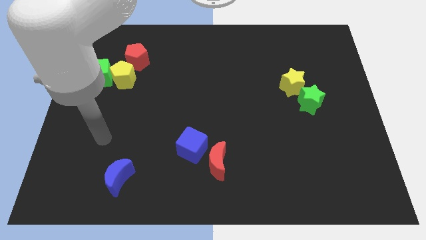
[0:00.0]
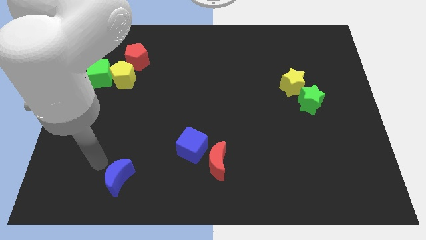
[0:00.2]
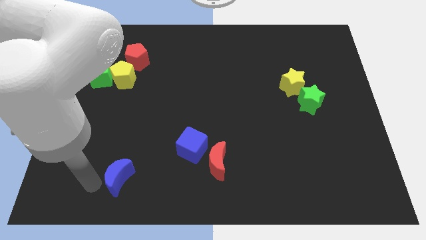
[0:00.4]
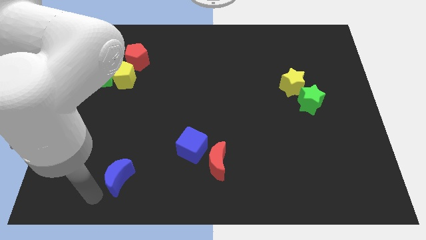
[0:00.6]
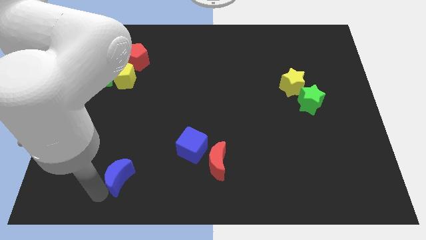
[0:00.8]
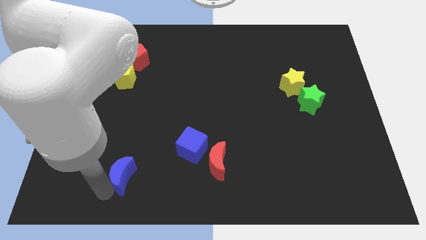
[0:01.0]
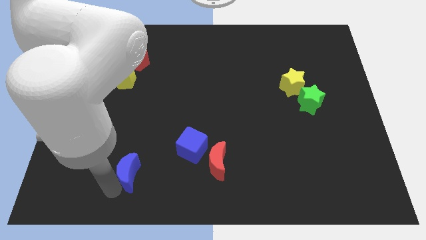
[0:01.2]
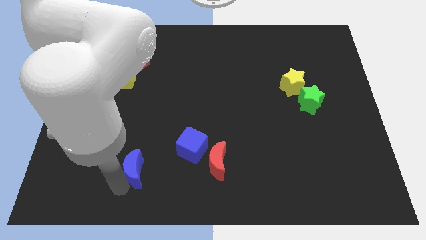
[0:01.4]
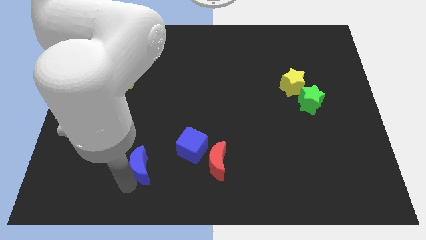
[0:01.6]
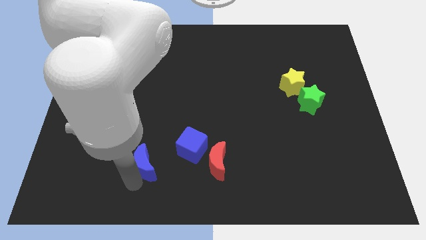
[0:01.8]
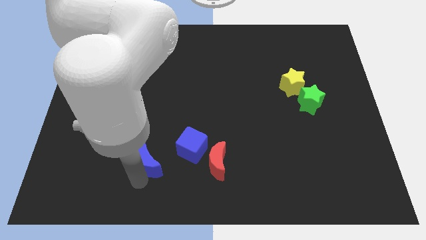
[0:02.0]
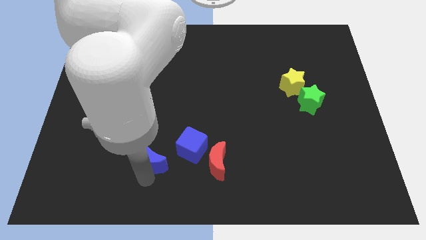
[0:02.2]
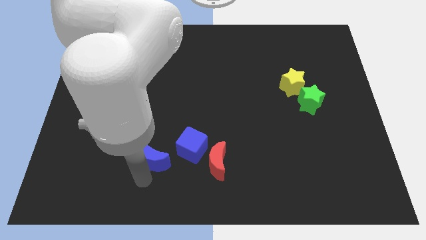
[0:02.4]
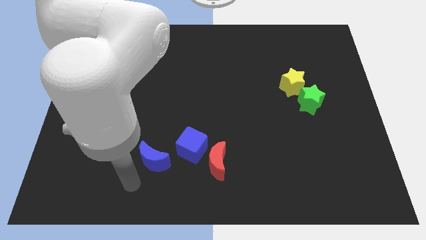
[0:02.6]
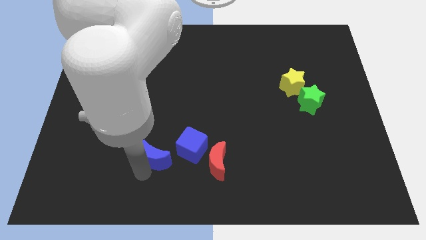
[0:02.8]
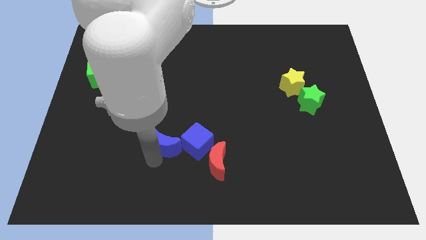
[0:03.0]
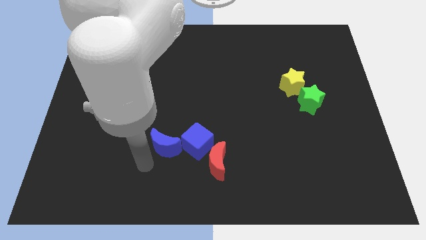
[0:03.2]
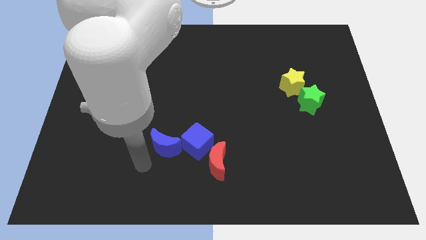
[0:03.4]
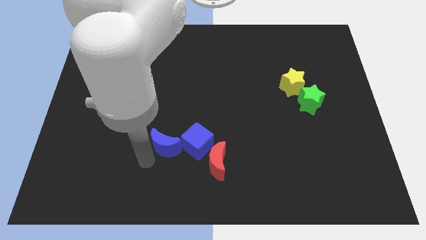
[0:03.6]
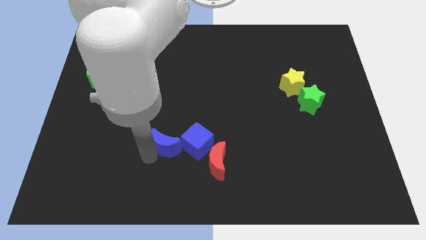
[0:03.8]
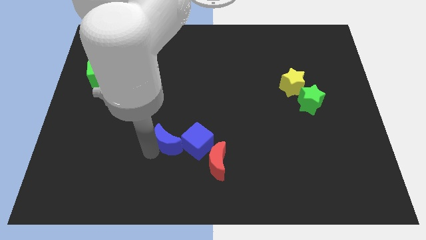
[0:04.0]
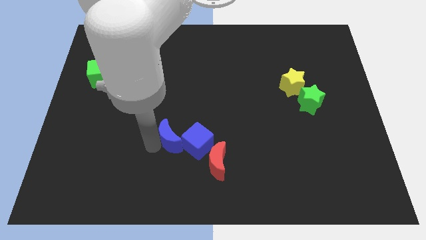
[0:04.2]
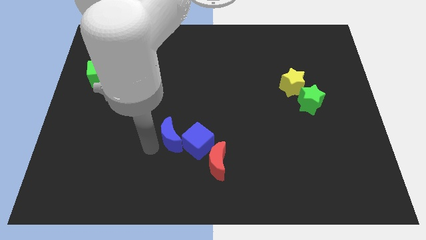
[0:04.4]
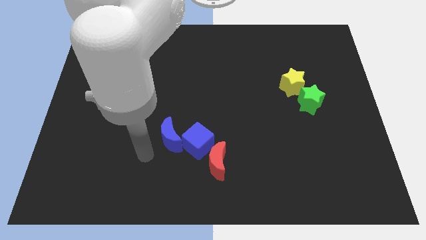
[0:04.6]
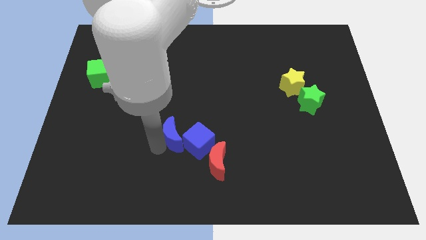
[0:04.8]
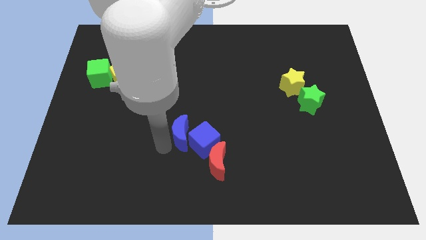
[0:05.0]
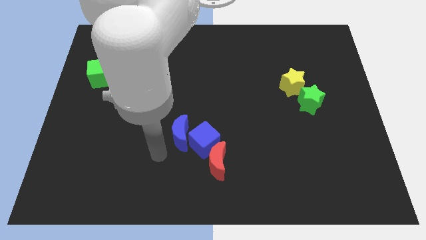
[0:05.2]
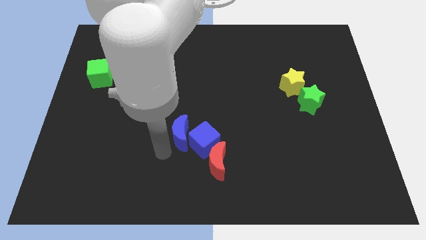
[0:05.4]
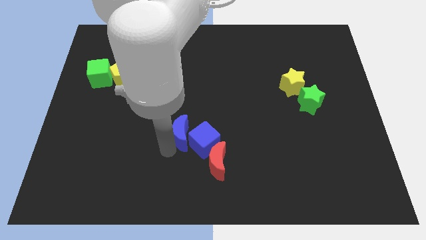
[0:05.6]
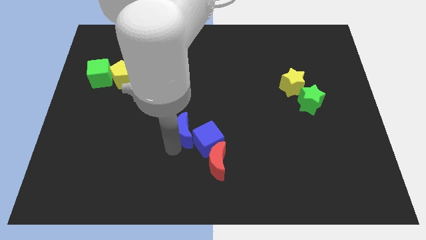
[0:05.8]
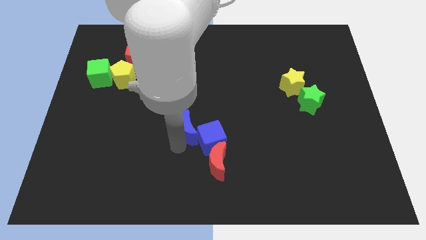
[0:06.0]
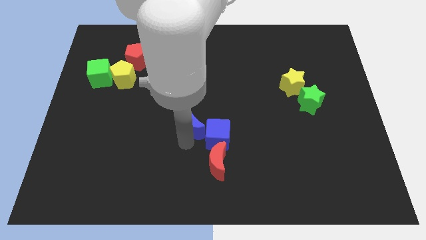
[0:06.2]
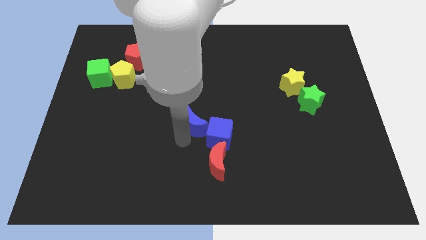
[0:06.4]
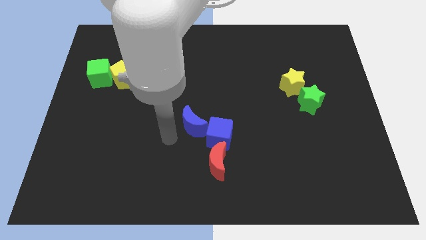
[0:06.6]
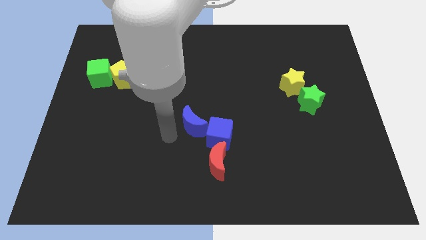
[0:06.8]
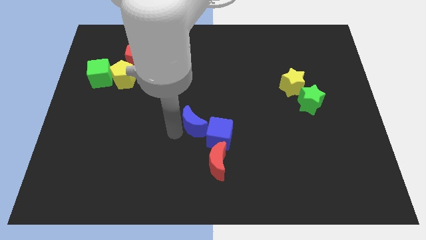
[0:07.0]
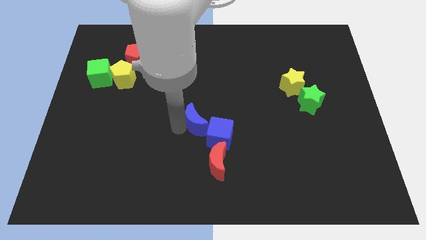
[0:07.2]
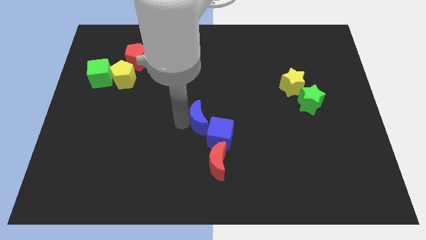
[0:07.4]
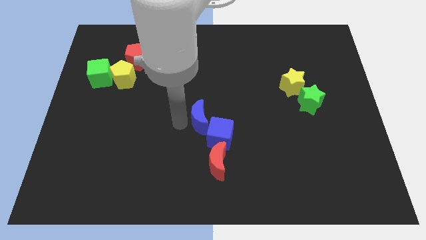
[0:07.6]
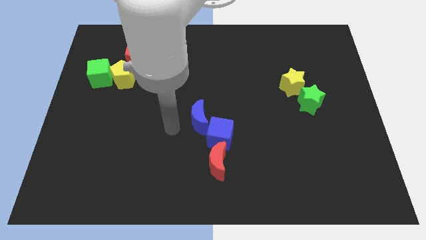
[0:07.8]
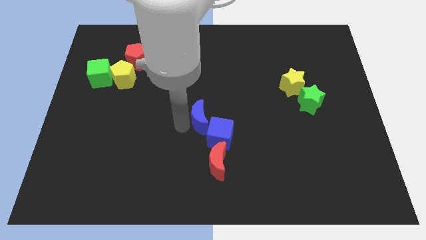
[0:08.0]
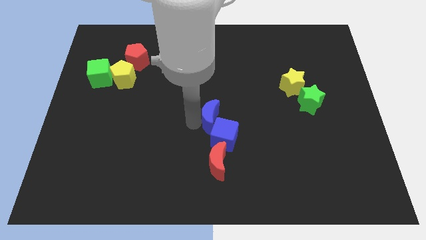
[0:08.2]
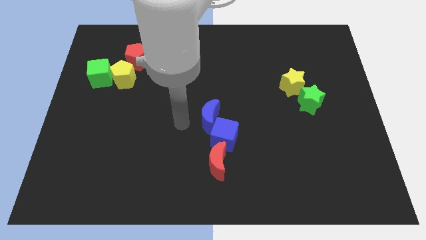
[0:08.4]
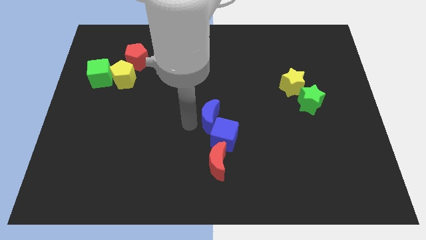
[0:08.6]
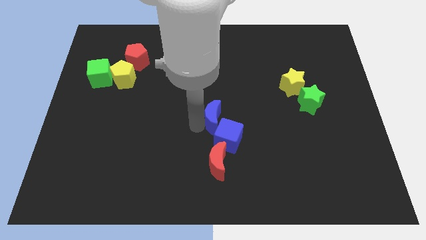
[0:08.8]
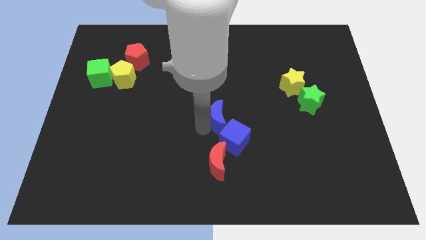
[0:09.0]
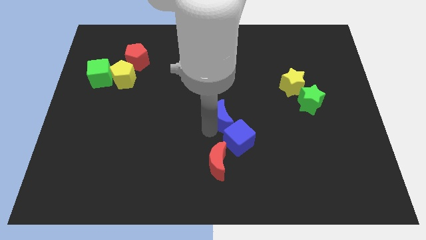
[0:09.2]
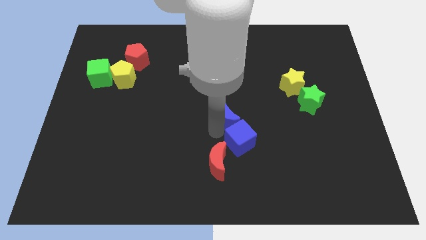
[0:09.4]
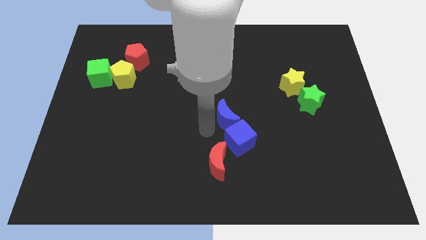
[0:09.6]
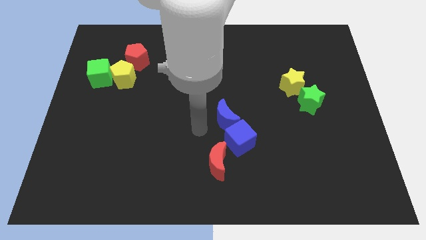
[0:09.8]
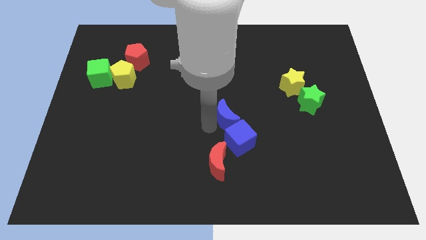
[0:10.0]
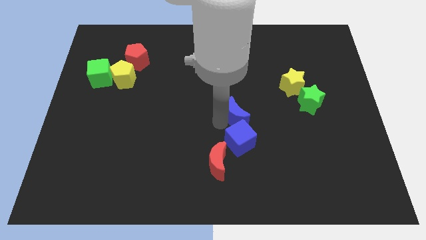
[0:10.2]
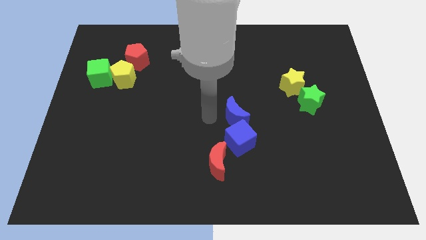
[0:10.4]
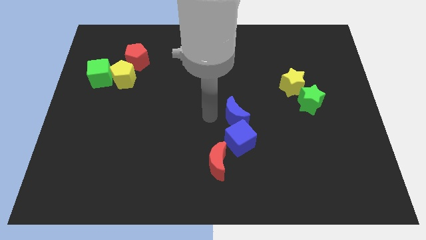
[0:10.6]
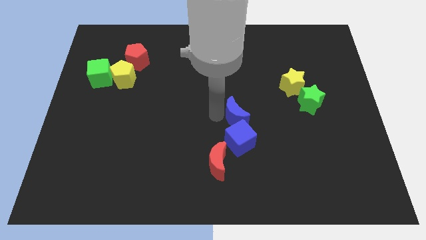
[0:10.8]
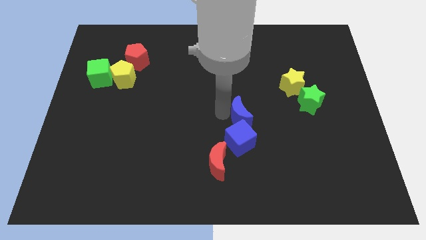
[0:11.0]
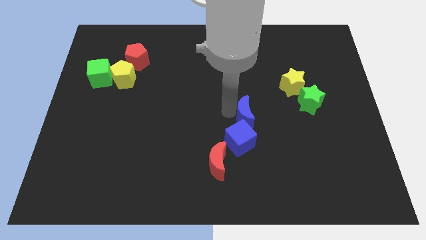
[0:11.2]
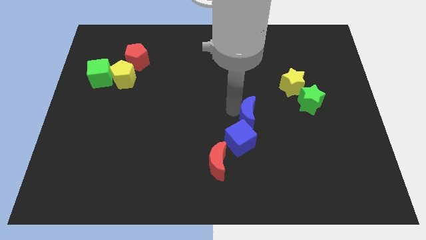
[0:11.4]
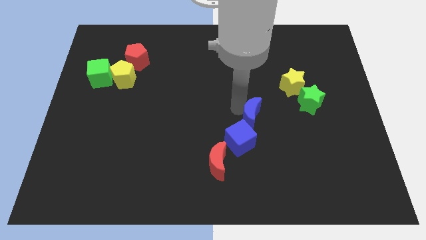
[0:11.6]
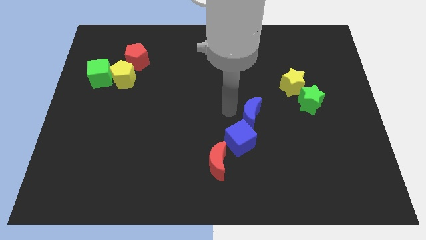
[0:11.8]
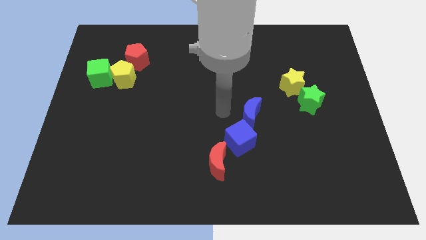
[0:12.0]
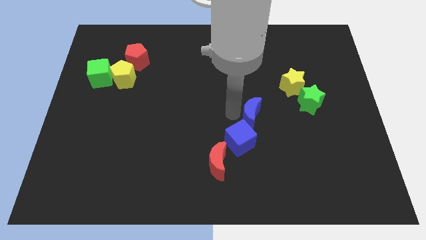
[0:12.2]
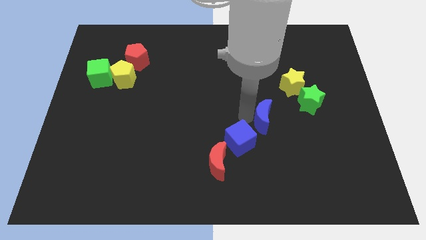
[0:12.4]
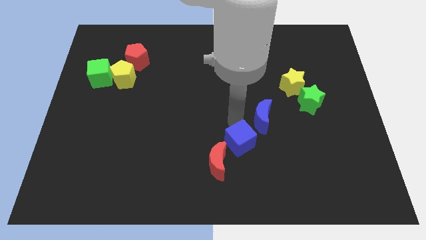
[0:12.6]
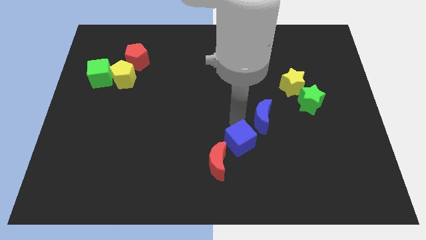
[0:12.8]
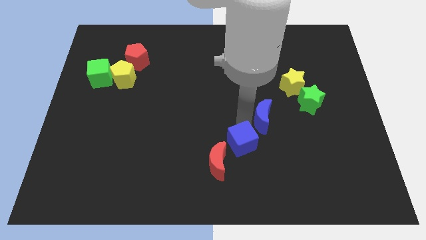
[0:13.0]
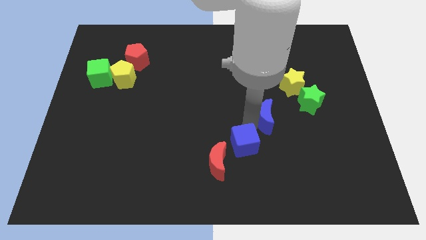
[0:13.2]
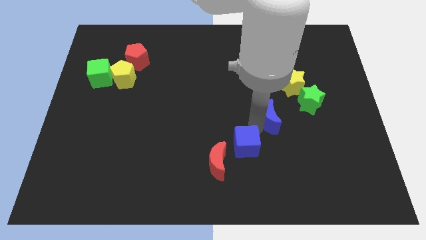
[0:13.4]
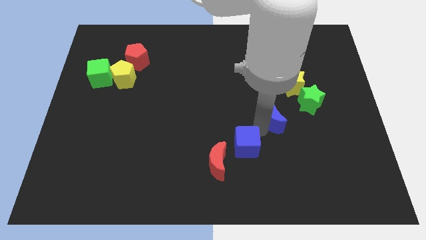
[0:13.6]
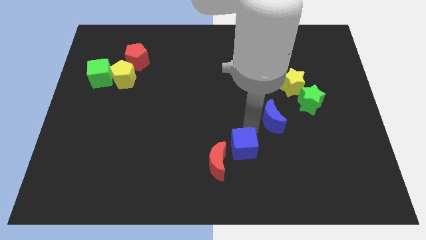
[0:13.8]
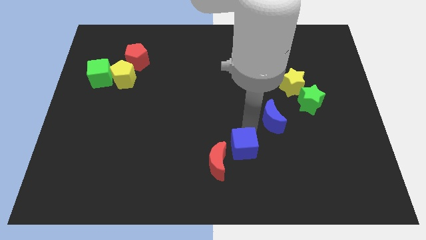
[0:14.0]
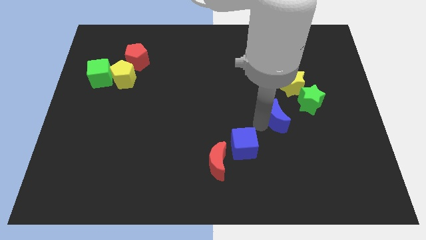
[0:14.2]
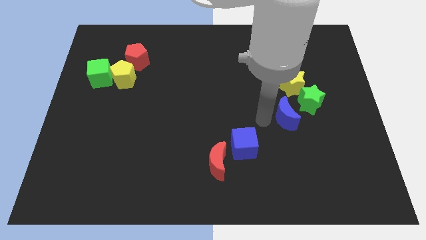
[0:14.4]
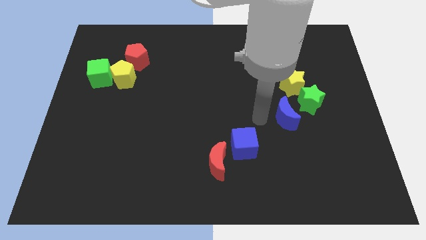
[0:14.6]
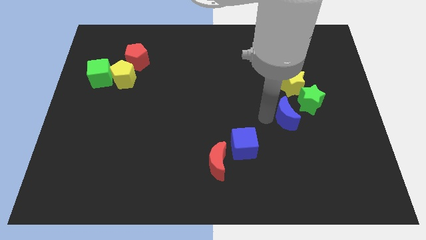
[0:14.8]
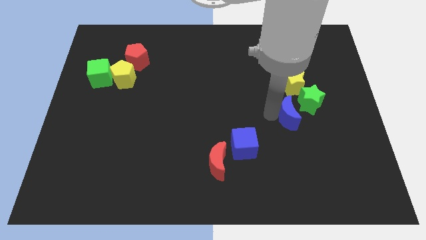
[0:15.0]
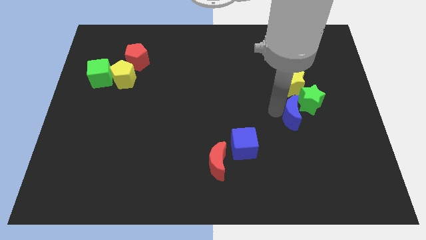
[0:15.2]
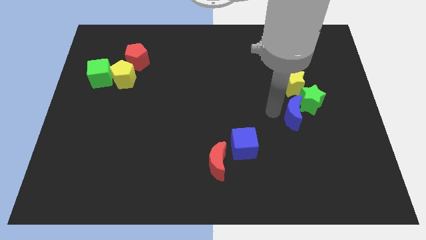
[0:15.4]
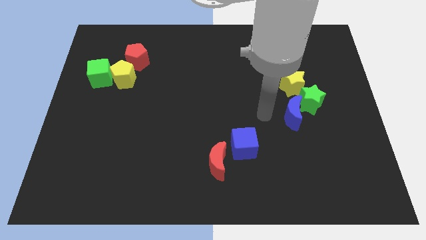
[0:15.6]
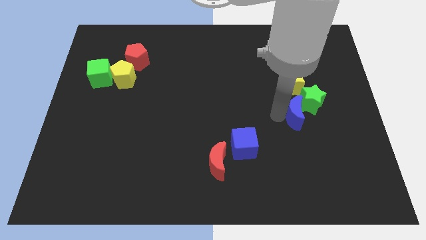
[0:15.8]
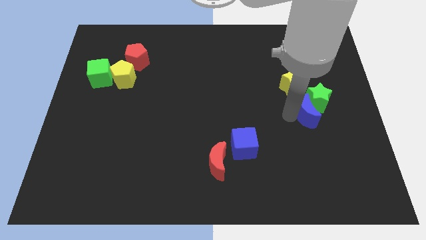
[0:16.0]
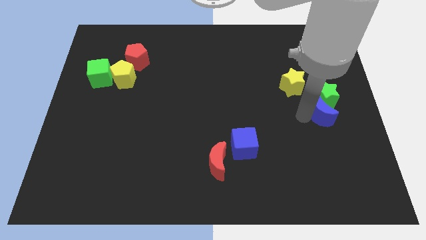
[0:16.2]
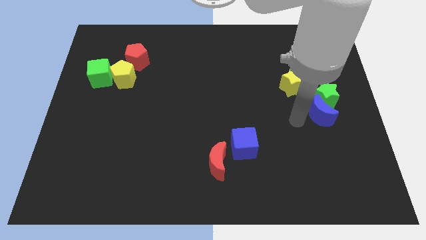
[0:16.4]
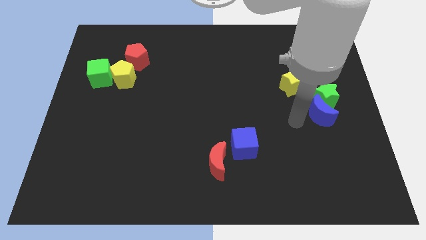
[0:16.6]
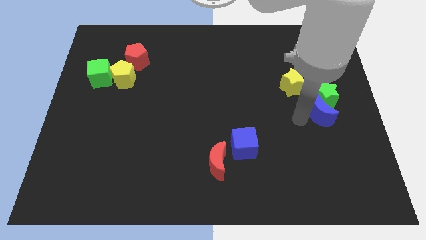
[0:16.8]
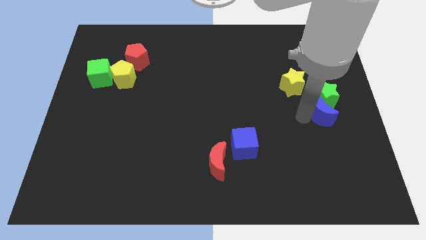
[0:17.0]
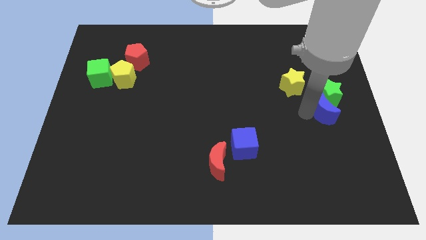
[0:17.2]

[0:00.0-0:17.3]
slide the blue moon to the right side of the board
